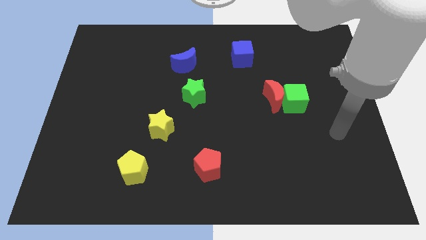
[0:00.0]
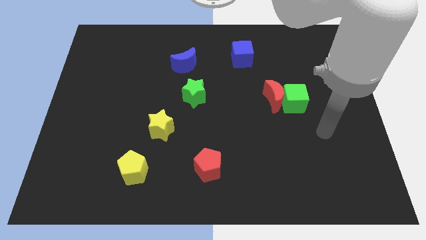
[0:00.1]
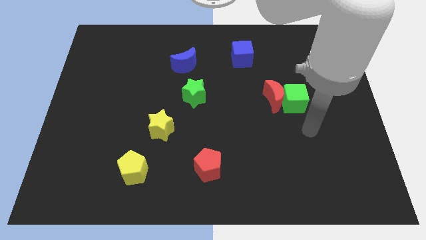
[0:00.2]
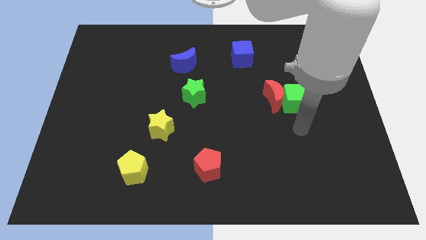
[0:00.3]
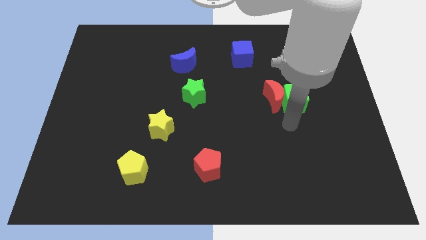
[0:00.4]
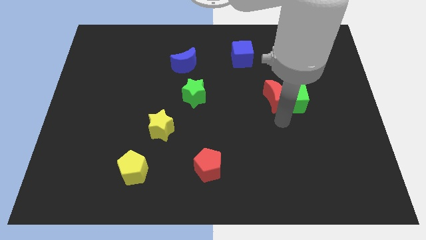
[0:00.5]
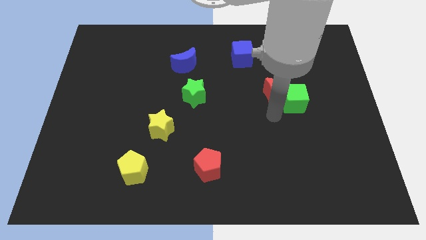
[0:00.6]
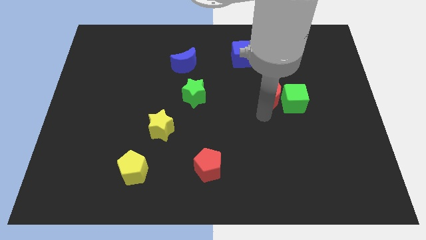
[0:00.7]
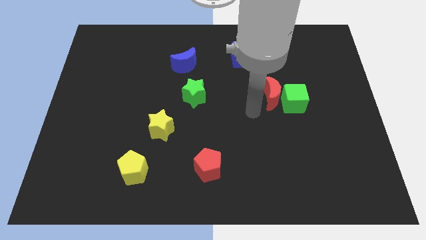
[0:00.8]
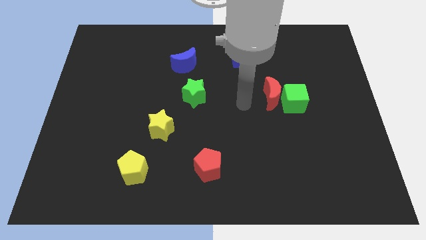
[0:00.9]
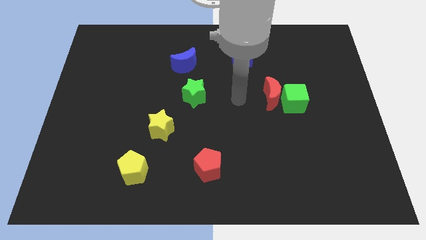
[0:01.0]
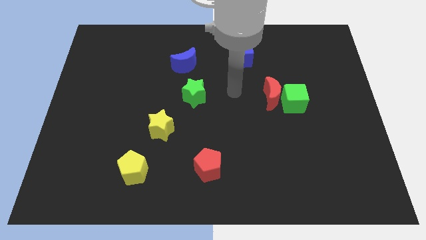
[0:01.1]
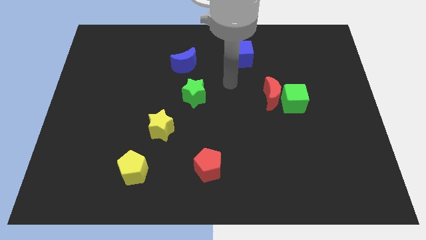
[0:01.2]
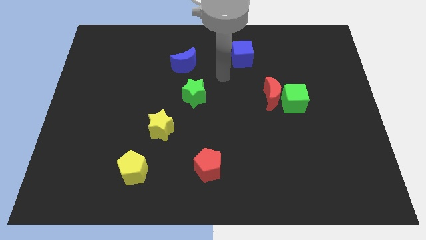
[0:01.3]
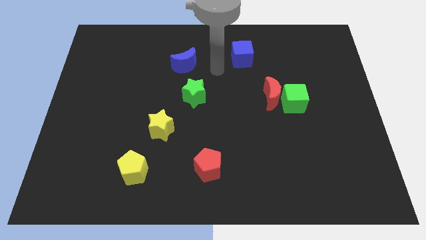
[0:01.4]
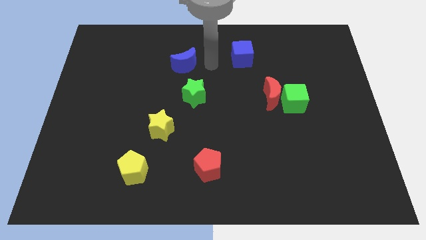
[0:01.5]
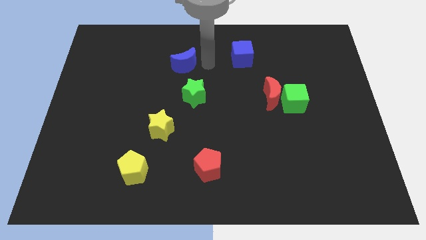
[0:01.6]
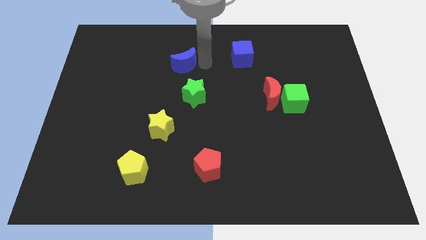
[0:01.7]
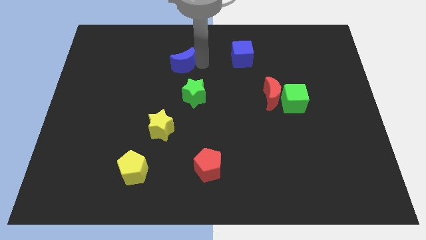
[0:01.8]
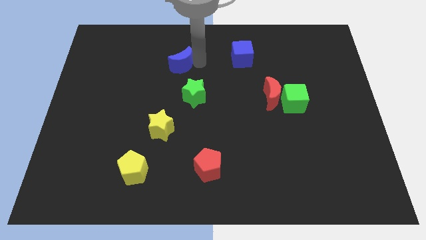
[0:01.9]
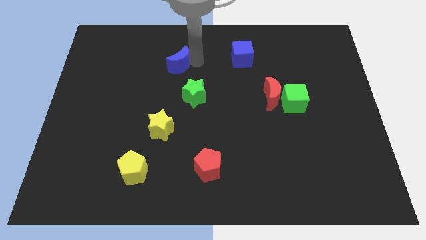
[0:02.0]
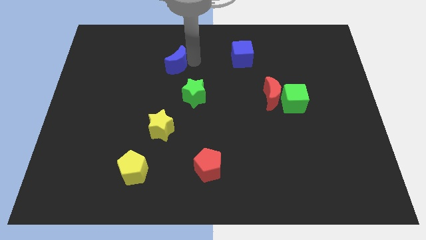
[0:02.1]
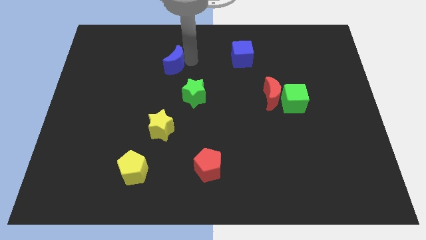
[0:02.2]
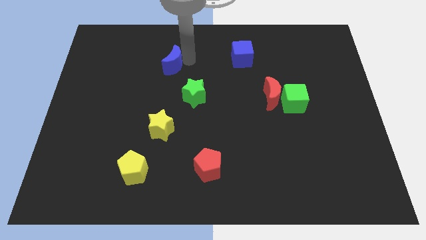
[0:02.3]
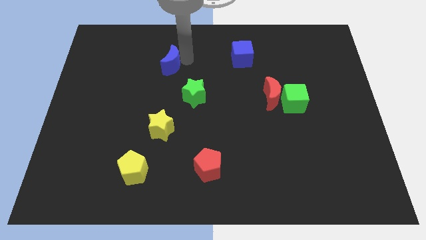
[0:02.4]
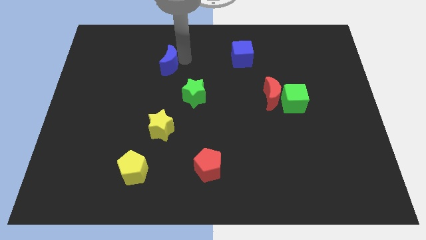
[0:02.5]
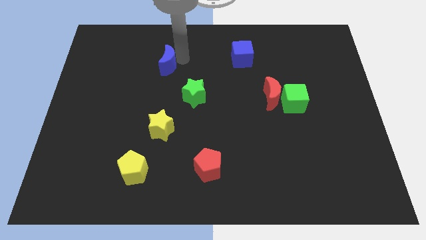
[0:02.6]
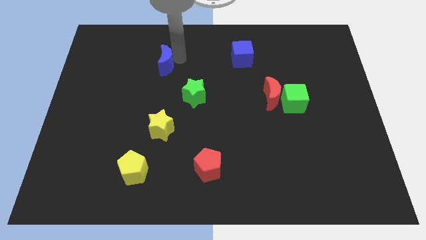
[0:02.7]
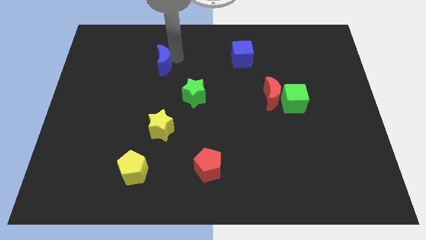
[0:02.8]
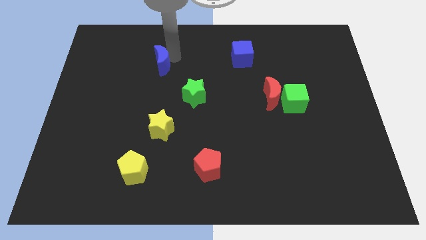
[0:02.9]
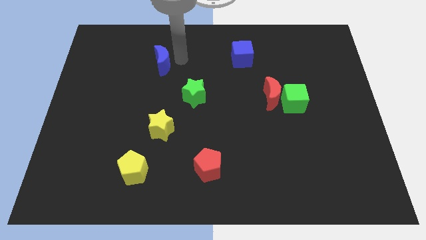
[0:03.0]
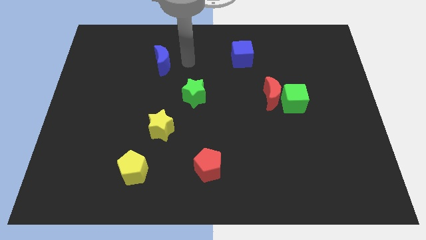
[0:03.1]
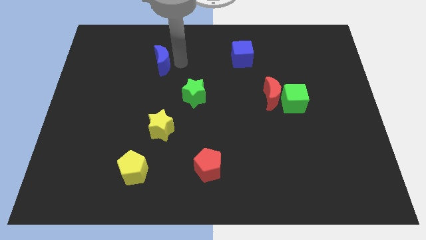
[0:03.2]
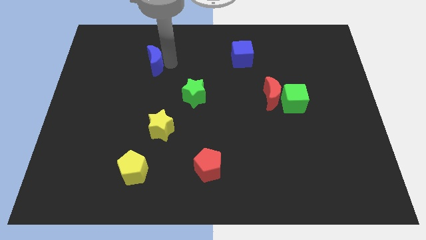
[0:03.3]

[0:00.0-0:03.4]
slide the blue moon left a little bit

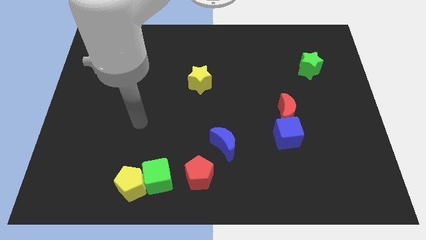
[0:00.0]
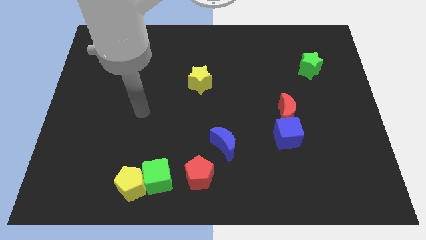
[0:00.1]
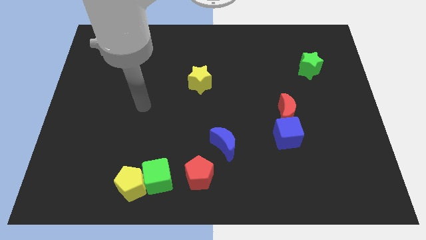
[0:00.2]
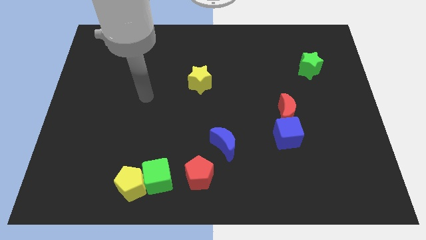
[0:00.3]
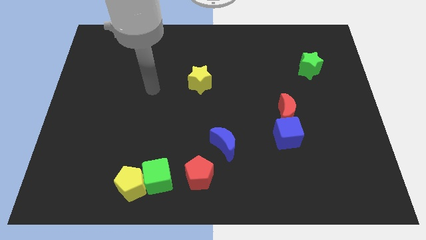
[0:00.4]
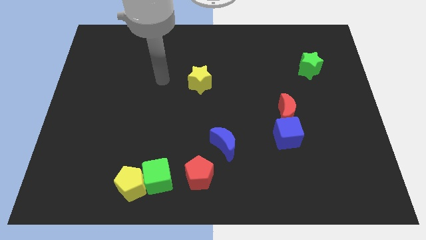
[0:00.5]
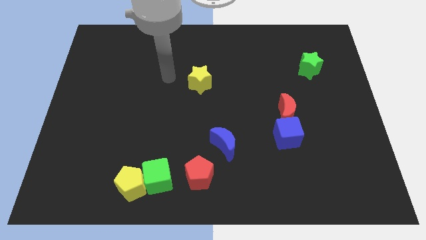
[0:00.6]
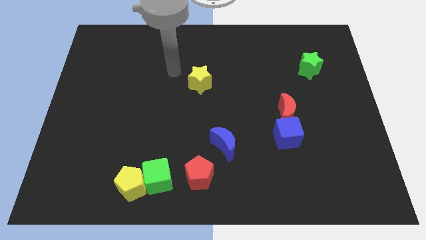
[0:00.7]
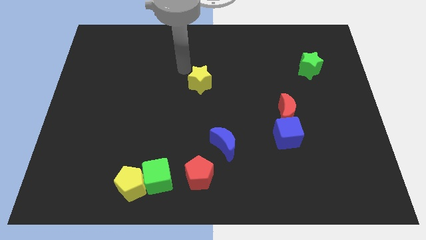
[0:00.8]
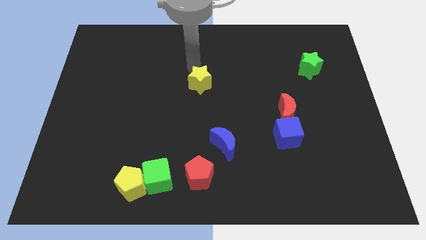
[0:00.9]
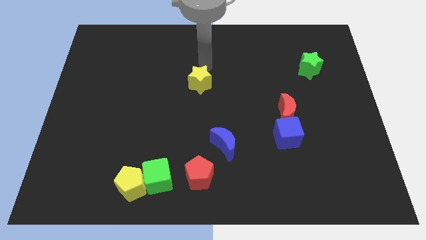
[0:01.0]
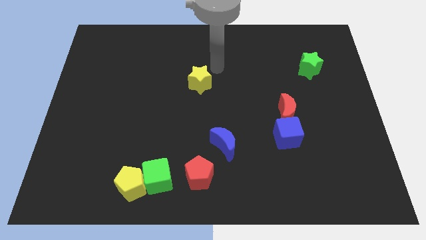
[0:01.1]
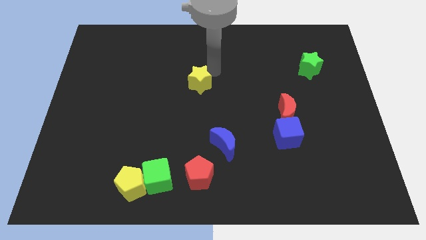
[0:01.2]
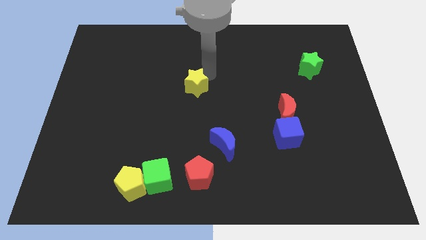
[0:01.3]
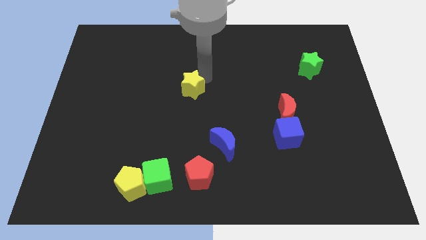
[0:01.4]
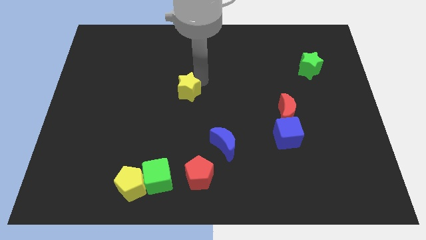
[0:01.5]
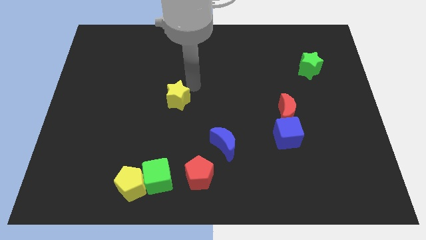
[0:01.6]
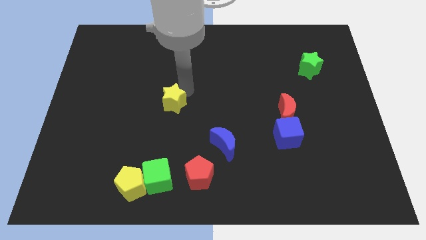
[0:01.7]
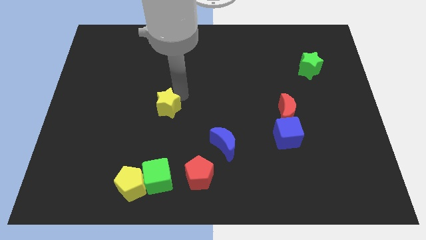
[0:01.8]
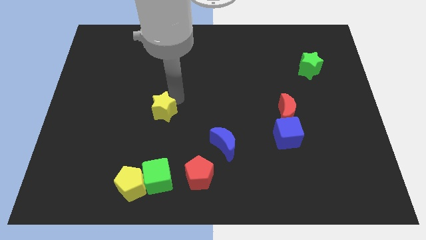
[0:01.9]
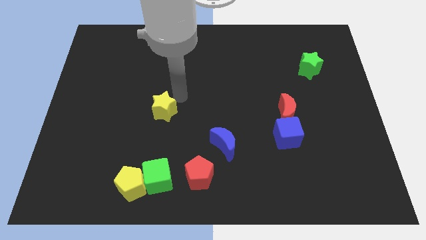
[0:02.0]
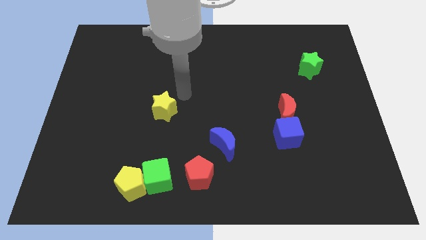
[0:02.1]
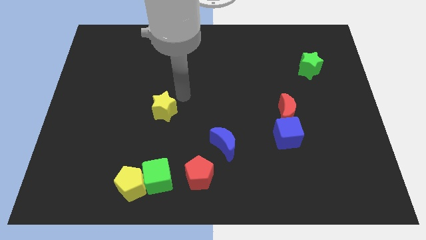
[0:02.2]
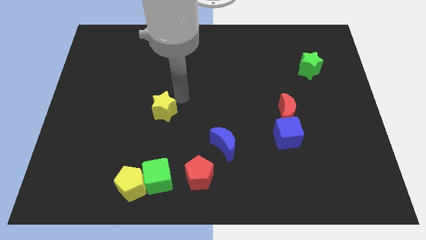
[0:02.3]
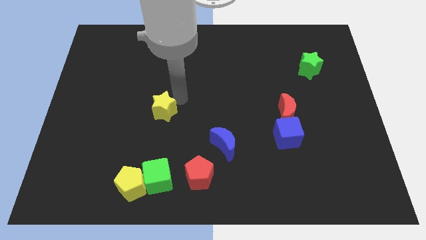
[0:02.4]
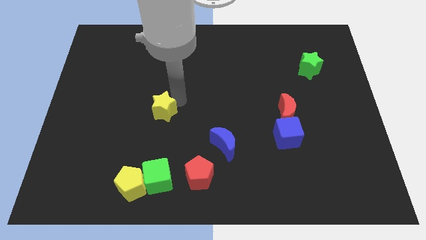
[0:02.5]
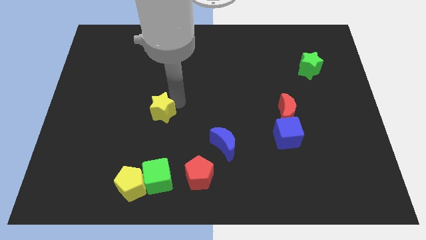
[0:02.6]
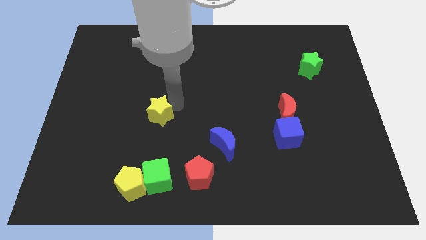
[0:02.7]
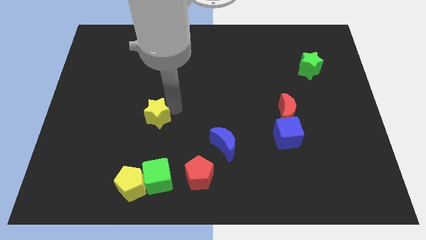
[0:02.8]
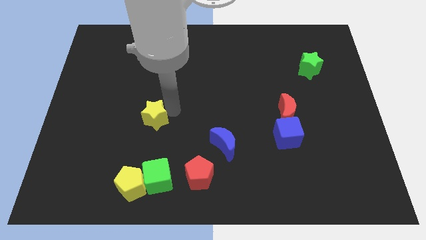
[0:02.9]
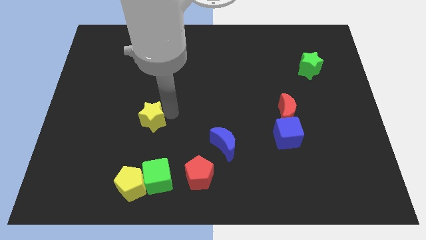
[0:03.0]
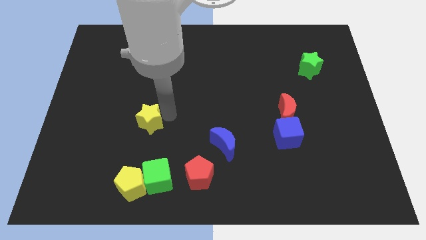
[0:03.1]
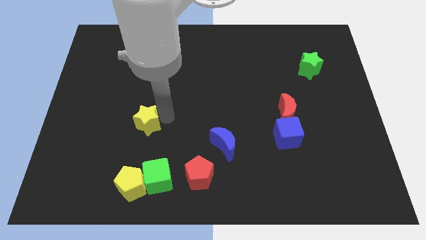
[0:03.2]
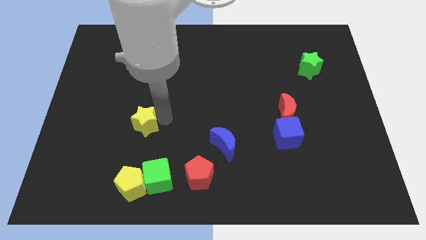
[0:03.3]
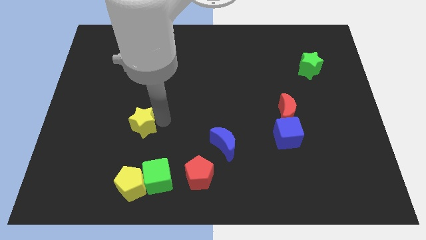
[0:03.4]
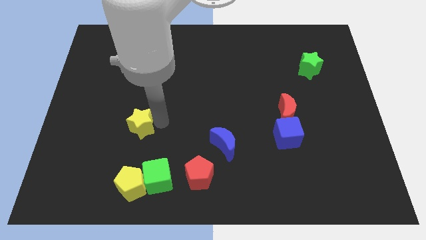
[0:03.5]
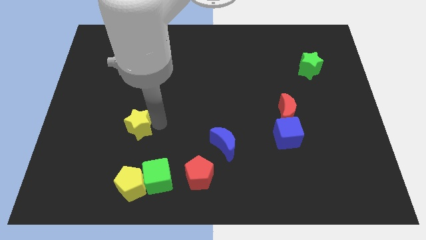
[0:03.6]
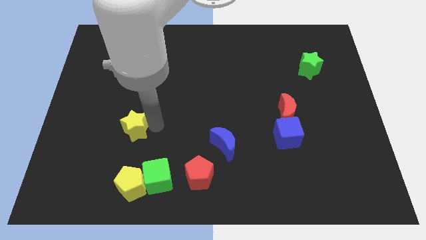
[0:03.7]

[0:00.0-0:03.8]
move the yellow star down and to the left diagonally

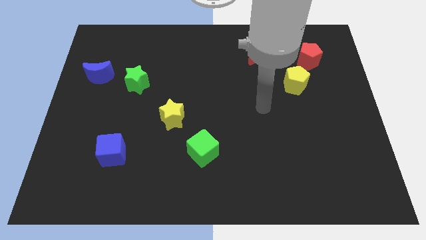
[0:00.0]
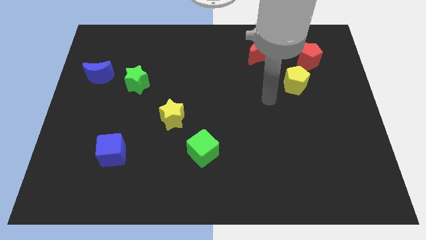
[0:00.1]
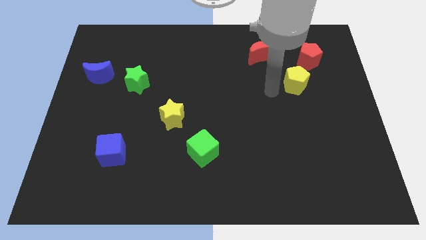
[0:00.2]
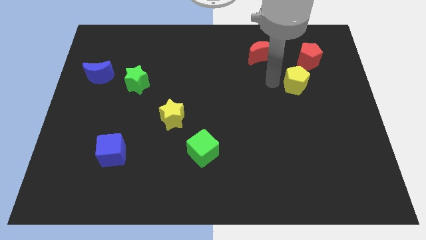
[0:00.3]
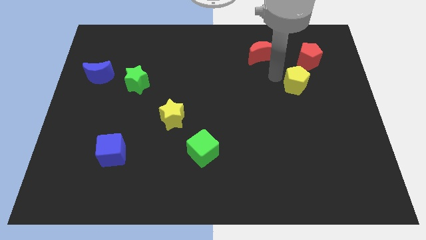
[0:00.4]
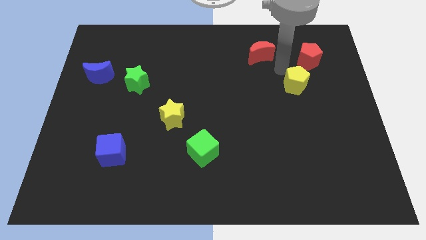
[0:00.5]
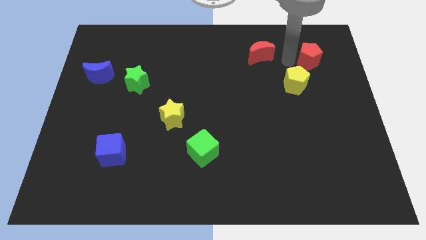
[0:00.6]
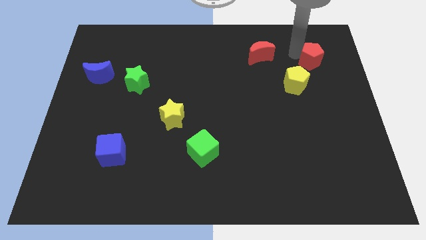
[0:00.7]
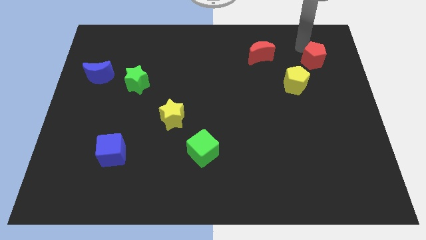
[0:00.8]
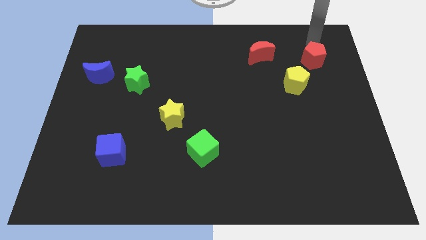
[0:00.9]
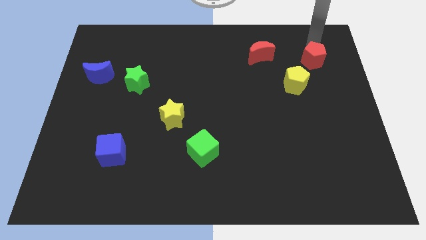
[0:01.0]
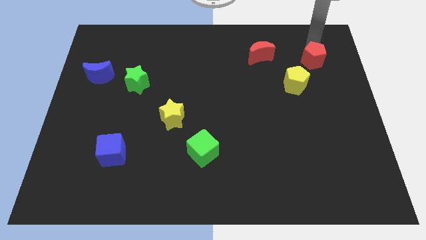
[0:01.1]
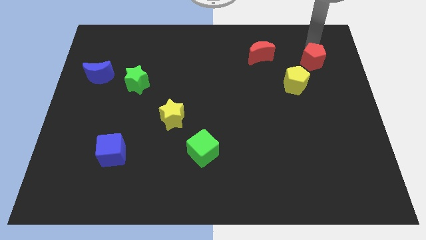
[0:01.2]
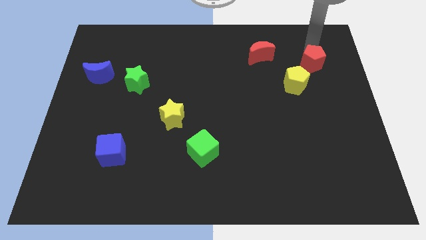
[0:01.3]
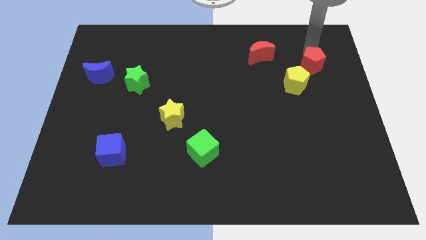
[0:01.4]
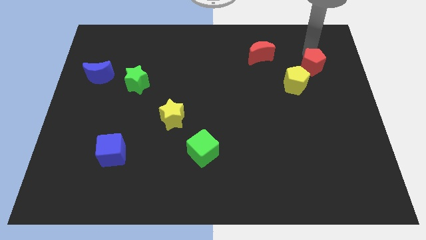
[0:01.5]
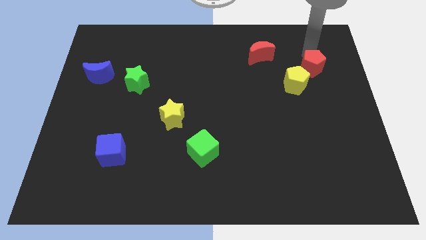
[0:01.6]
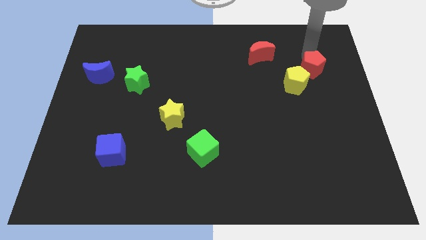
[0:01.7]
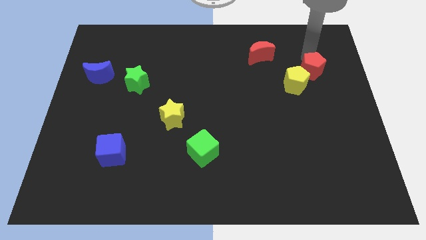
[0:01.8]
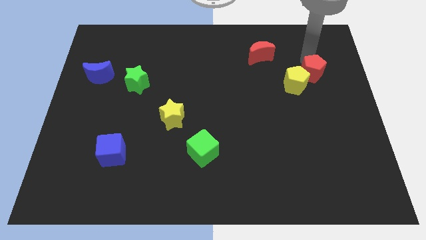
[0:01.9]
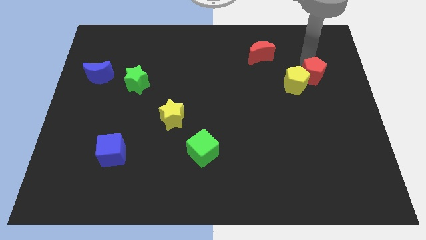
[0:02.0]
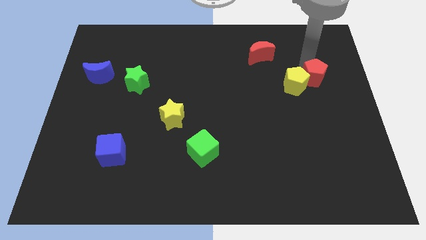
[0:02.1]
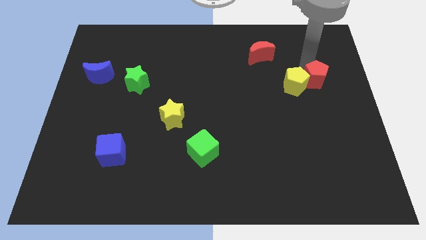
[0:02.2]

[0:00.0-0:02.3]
slightly push the red pentagon downwards
